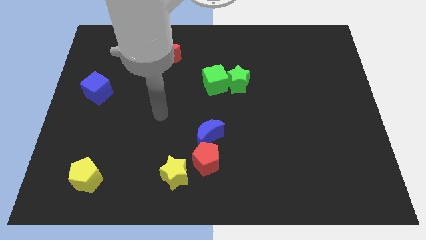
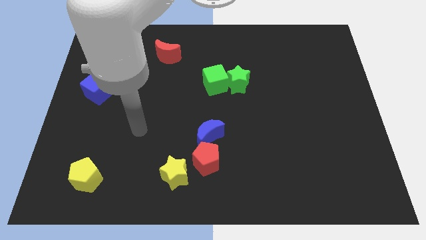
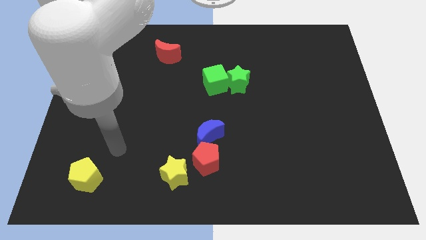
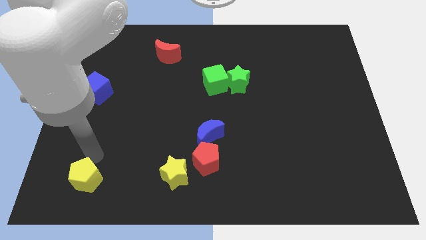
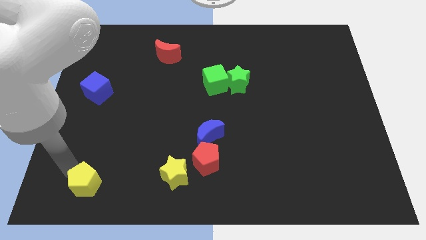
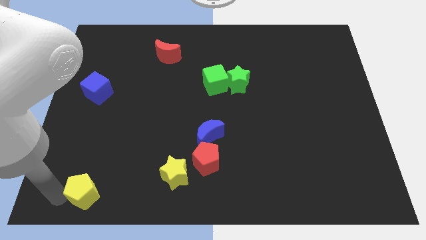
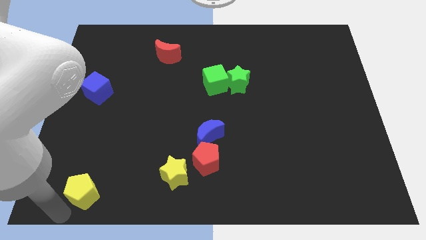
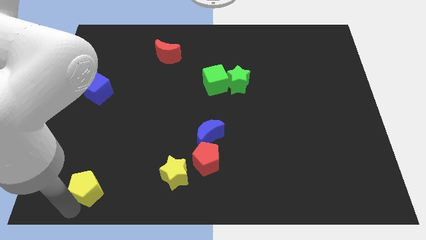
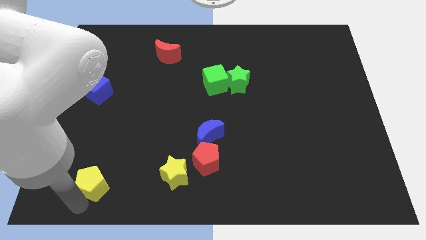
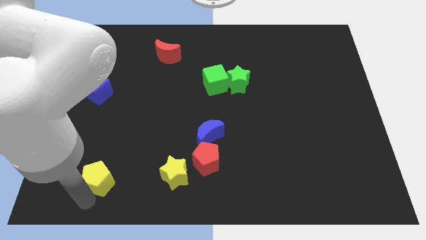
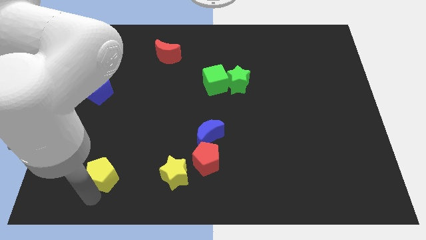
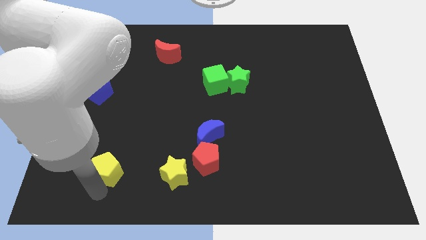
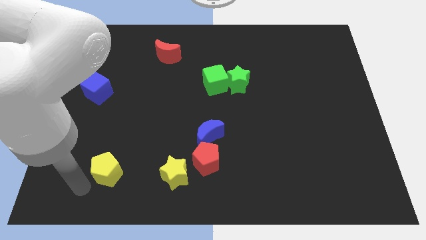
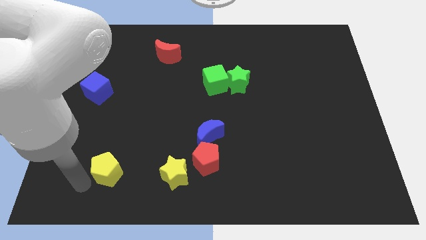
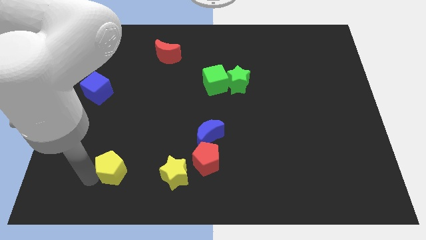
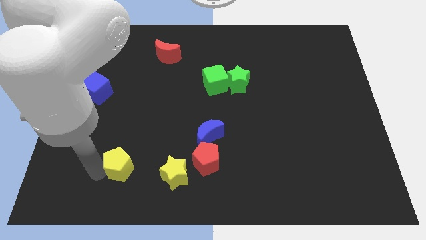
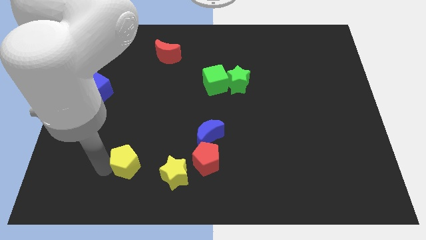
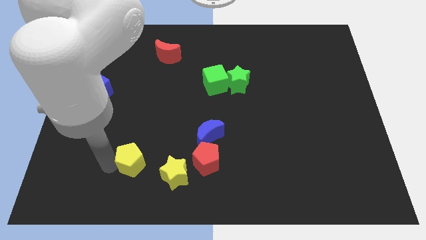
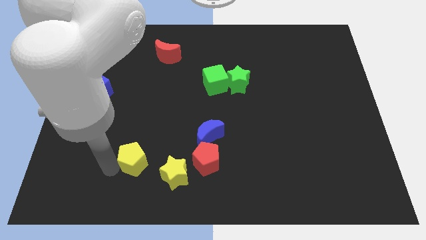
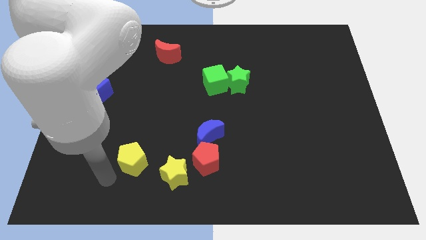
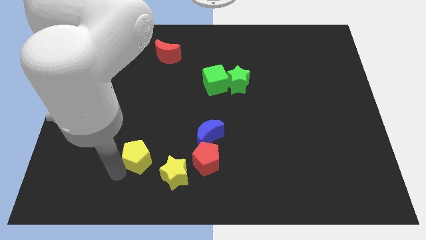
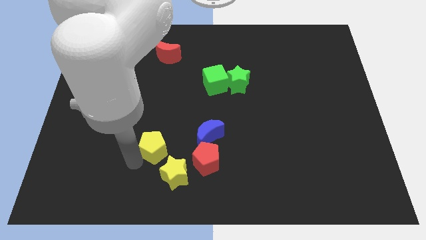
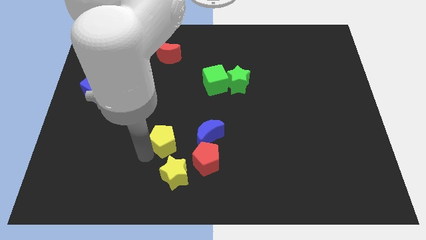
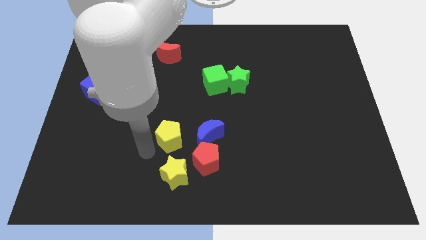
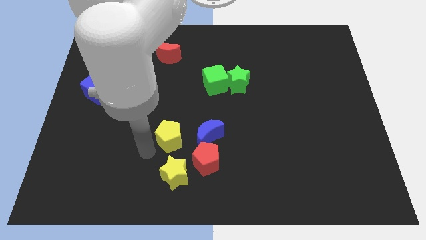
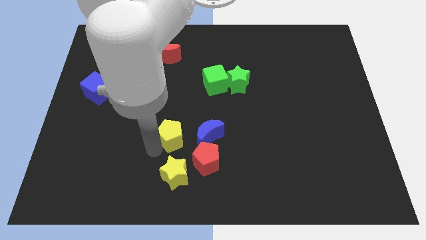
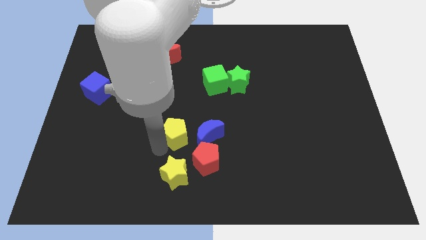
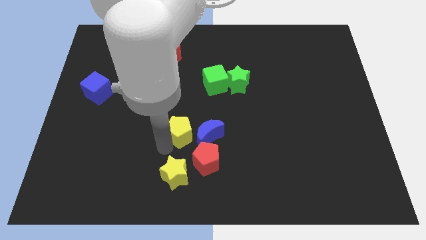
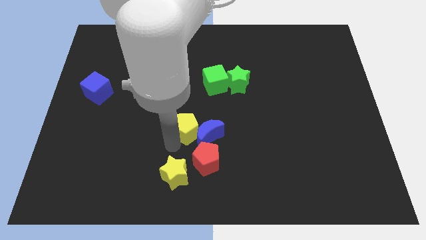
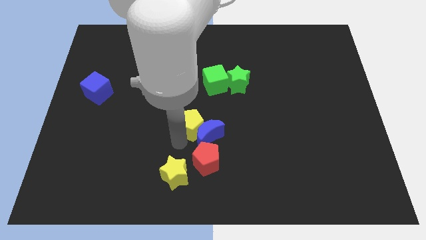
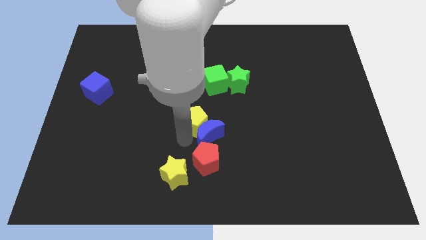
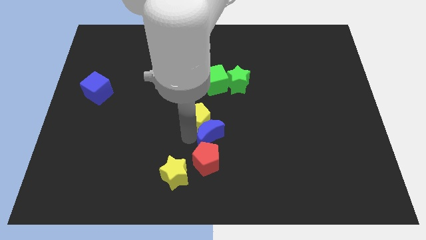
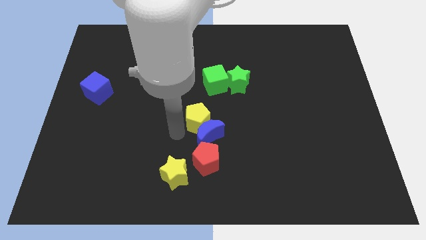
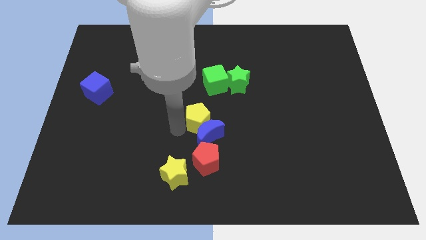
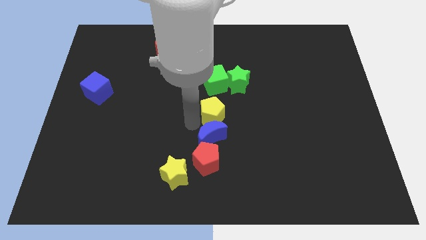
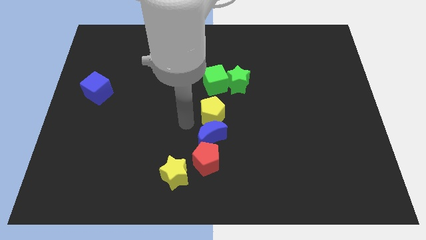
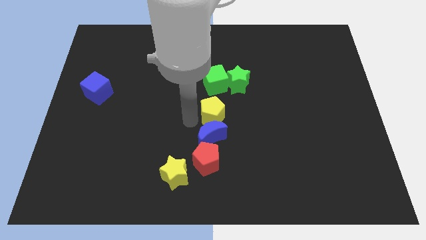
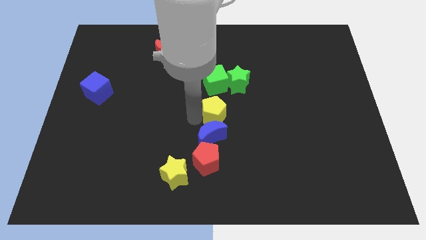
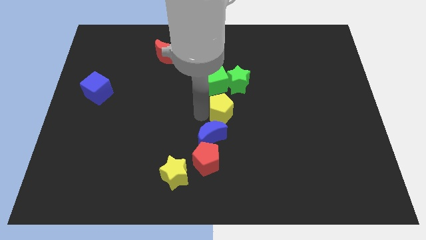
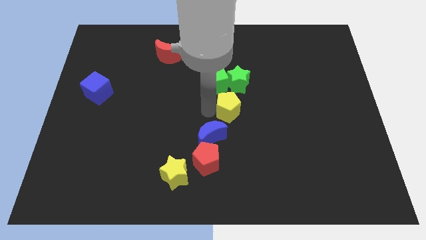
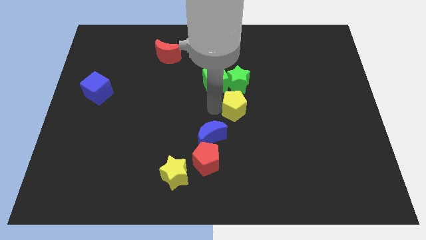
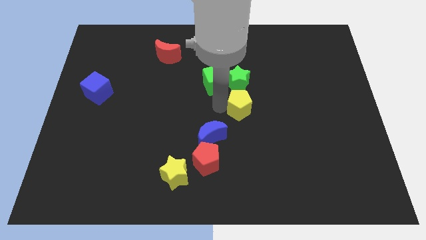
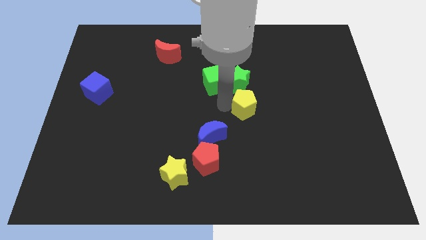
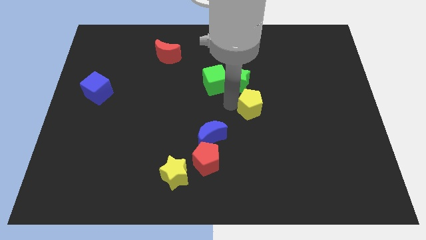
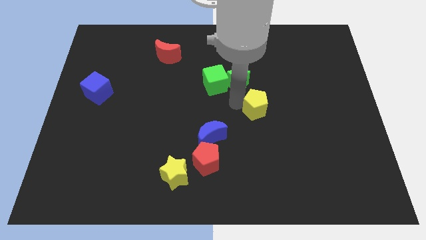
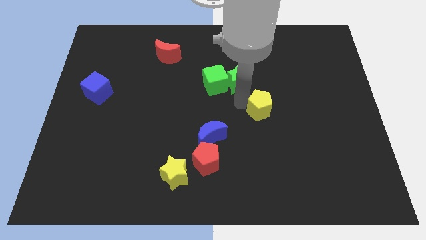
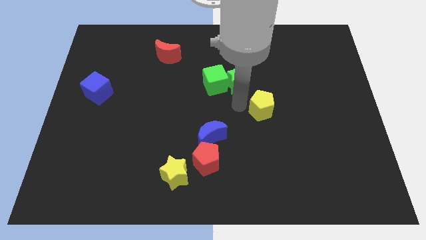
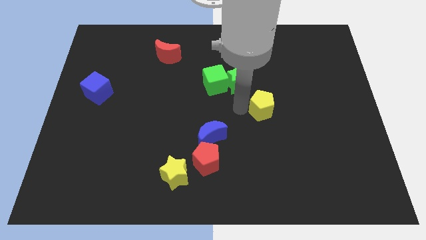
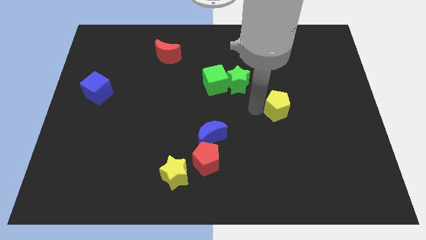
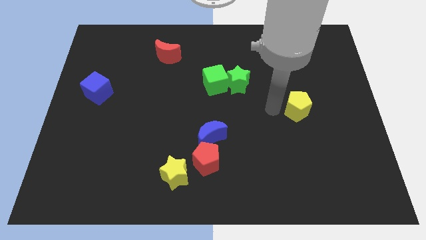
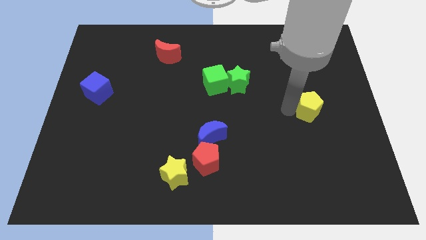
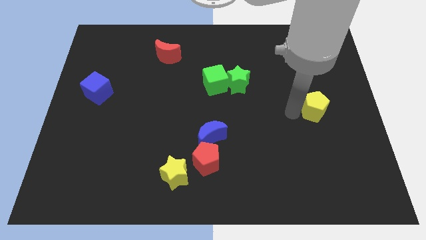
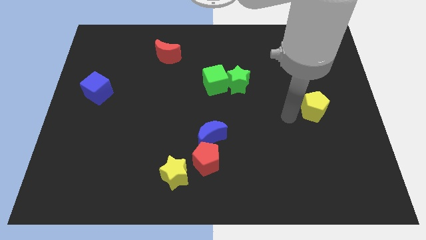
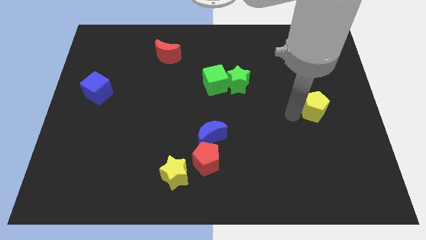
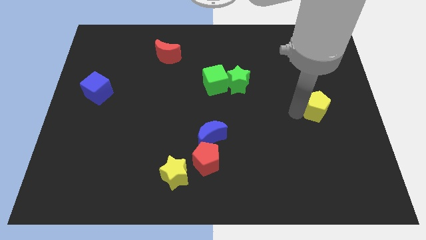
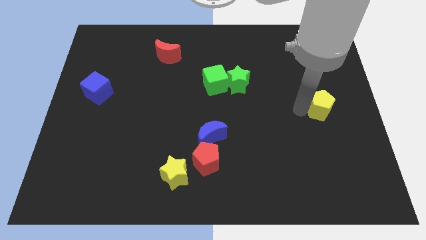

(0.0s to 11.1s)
slide the yellow pentagon to the center right

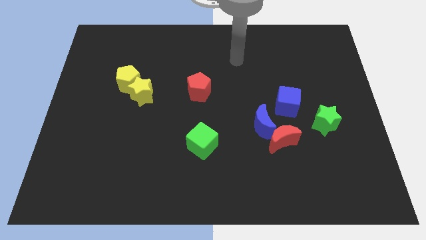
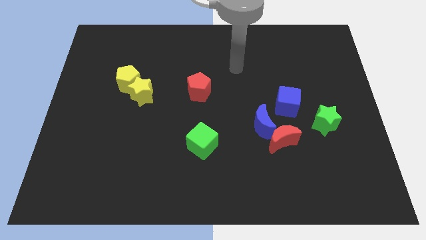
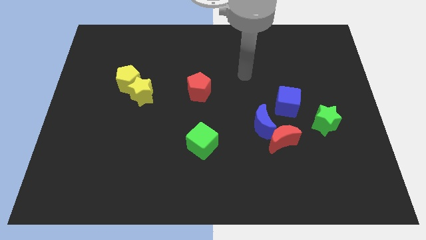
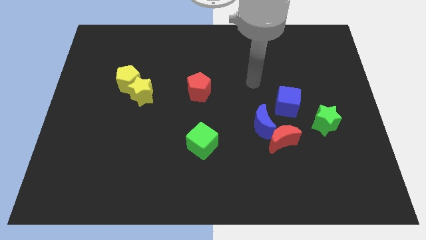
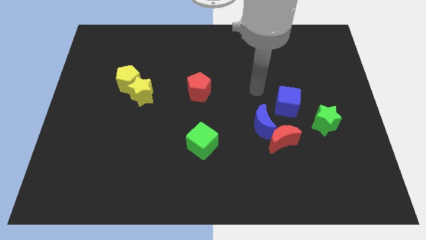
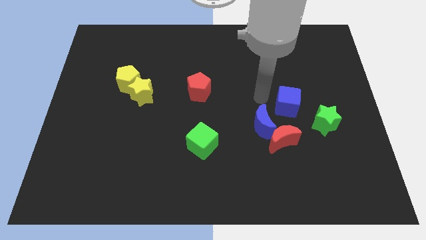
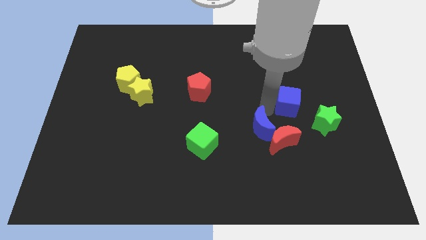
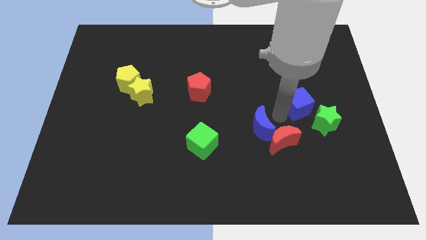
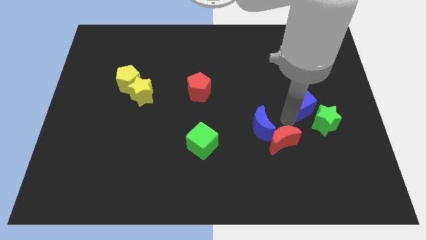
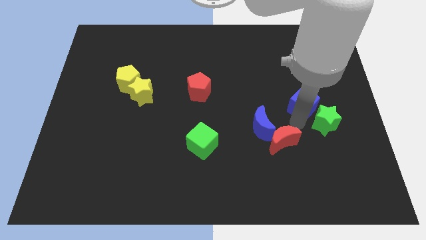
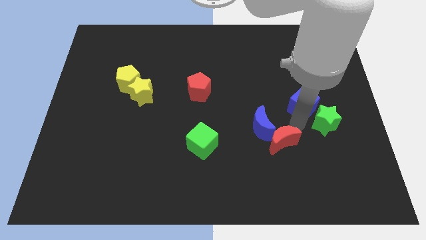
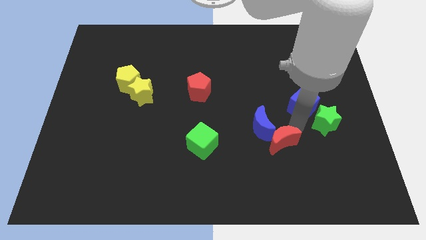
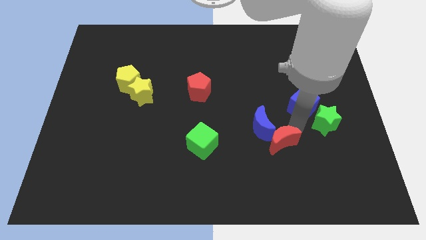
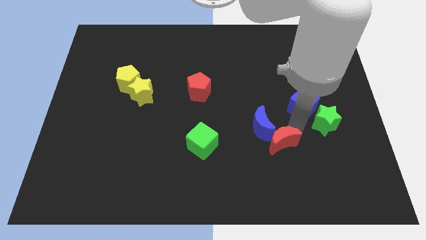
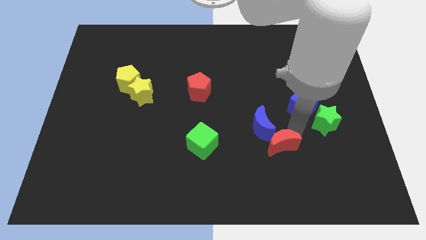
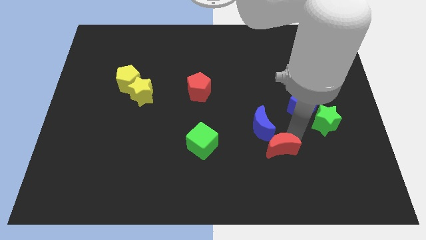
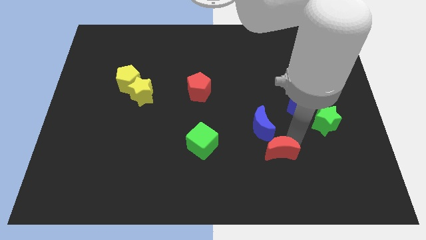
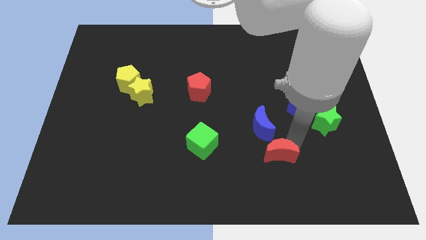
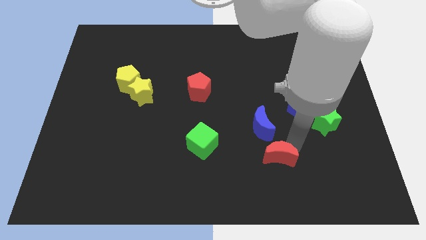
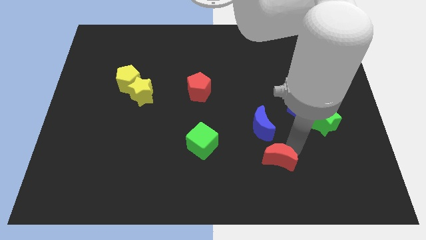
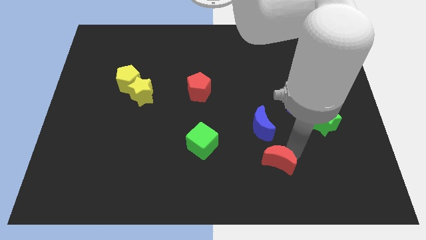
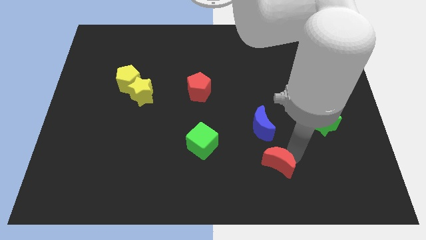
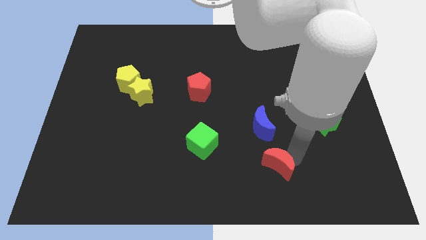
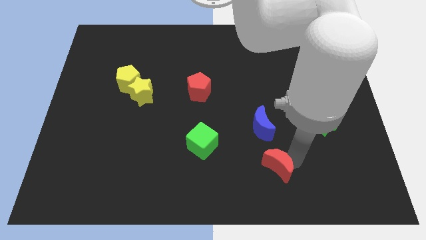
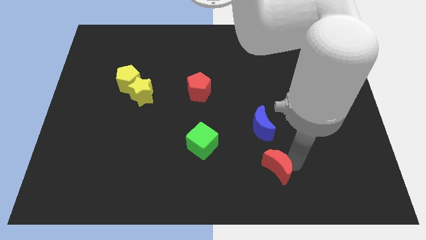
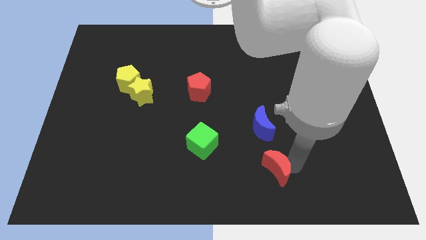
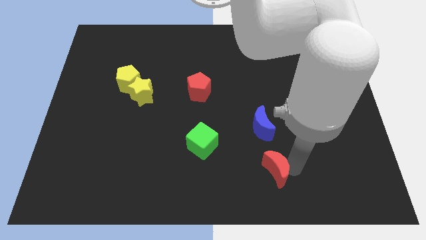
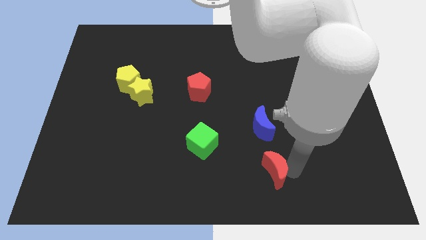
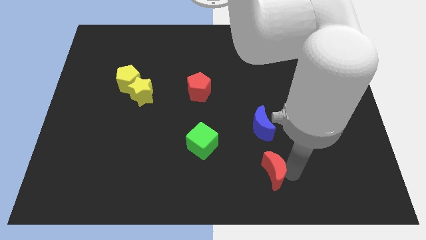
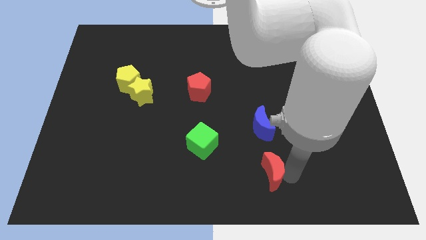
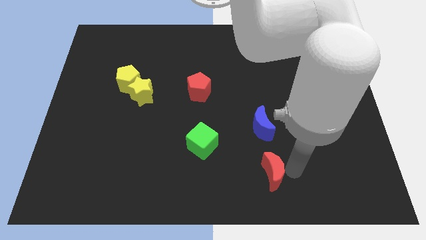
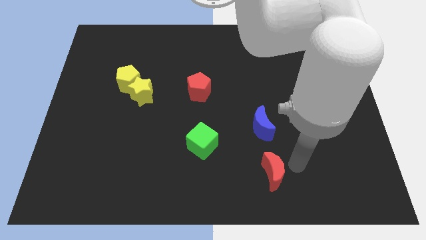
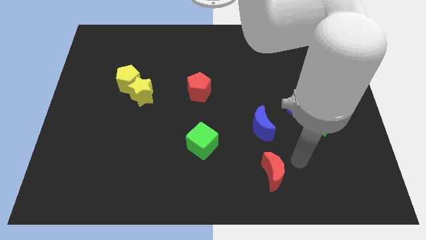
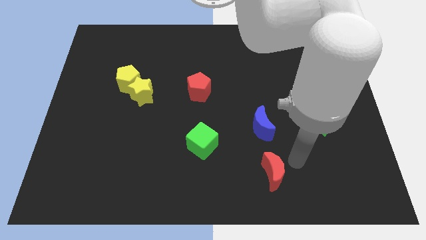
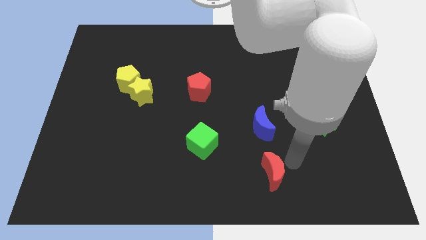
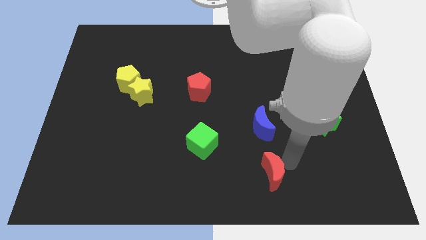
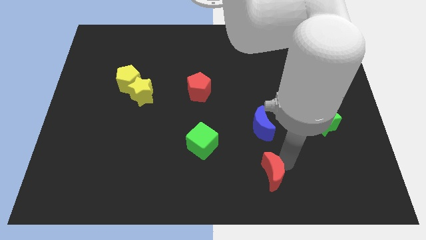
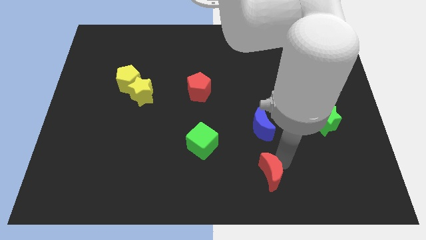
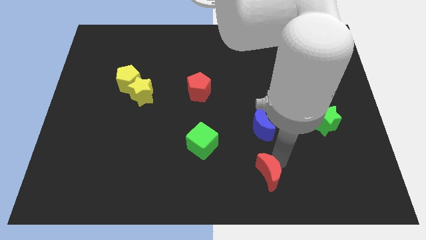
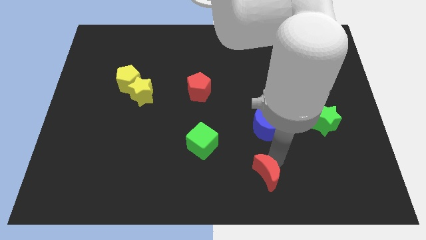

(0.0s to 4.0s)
move the red moon to the bottom side
